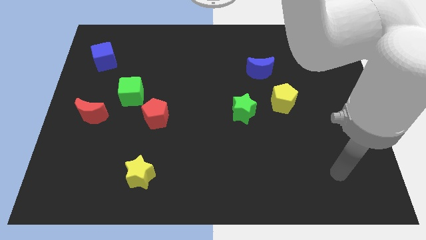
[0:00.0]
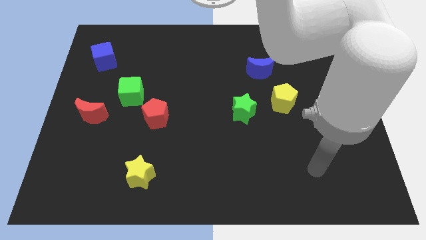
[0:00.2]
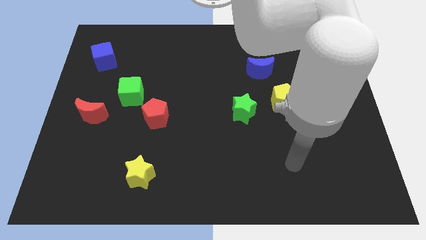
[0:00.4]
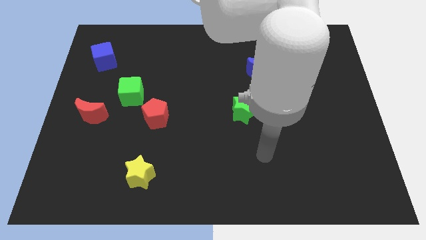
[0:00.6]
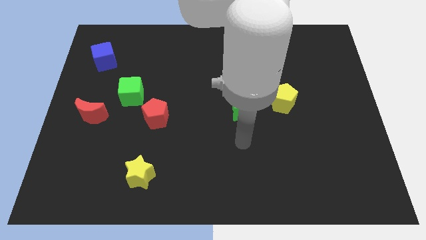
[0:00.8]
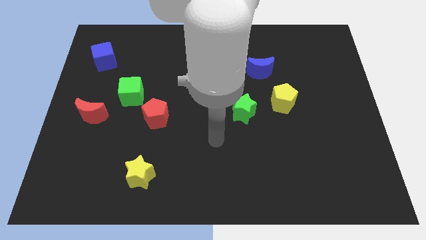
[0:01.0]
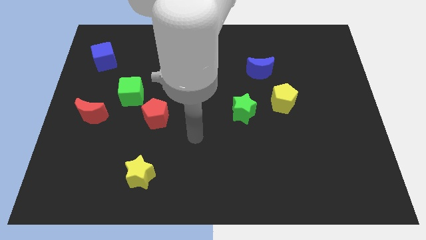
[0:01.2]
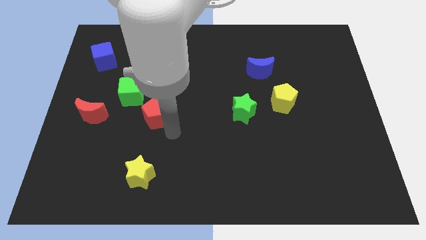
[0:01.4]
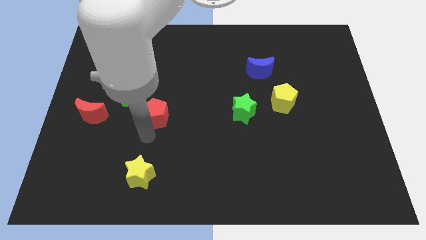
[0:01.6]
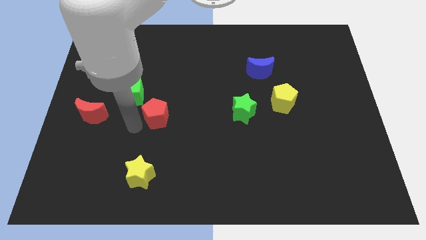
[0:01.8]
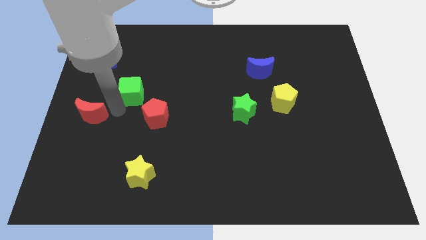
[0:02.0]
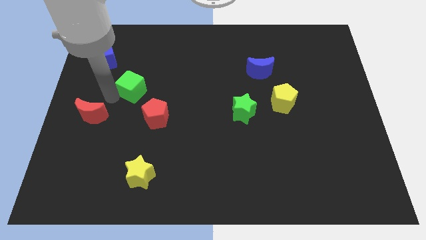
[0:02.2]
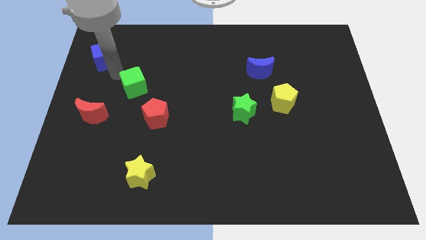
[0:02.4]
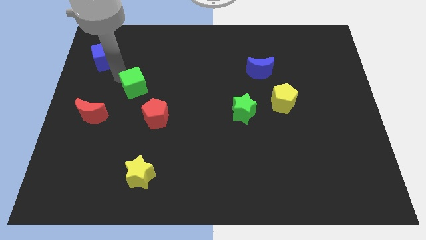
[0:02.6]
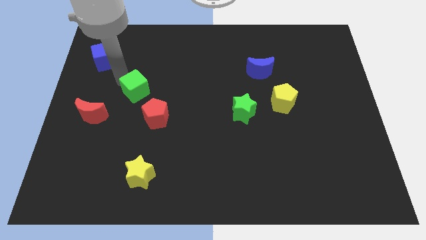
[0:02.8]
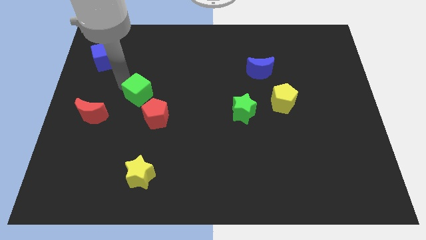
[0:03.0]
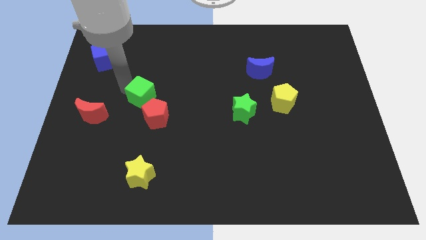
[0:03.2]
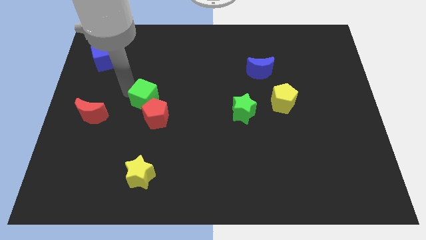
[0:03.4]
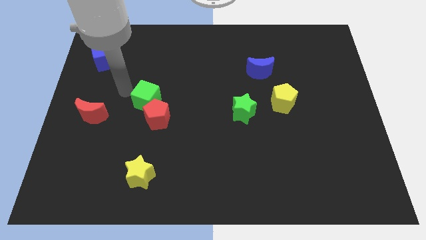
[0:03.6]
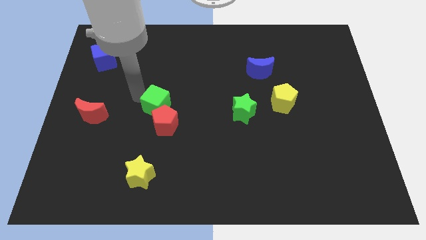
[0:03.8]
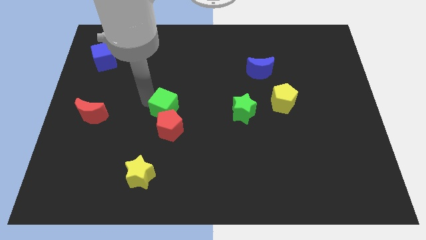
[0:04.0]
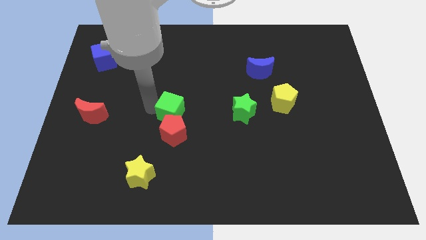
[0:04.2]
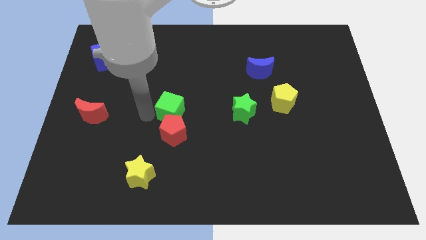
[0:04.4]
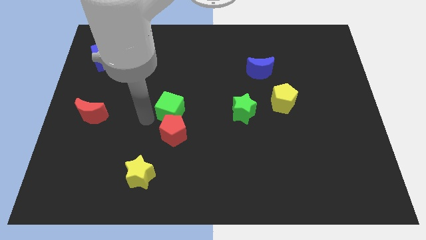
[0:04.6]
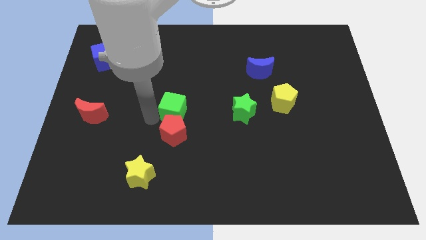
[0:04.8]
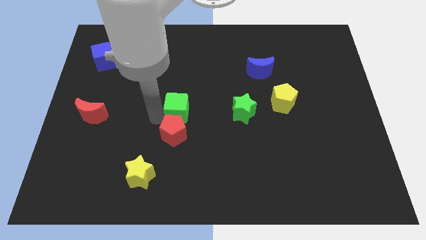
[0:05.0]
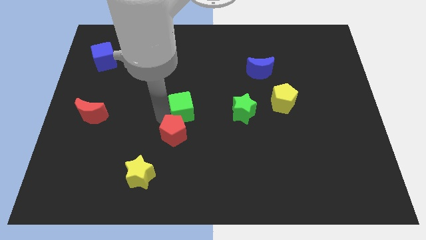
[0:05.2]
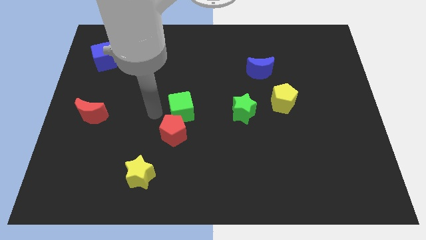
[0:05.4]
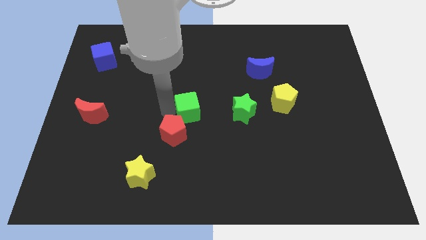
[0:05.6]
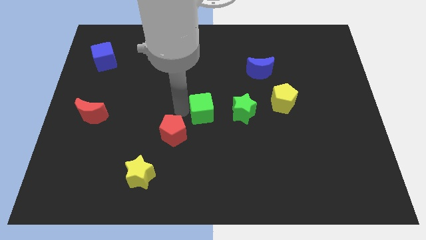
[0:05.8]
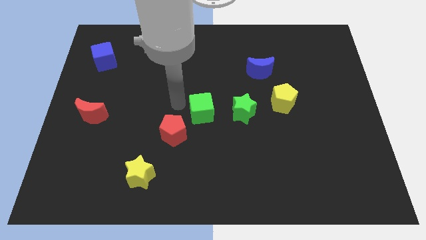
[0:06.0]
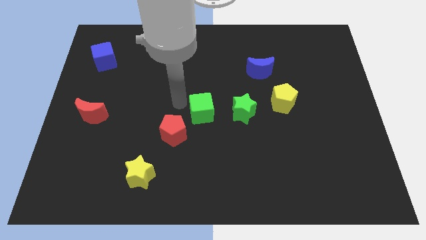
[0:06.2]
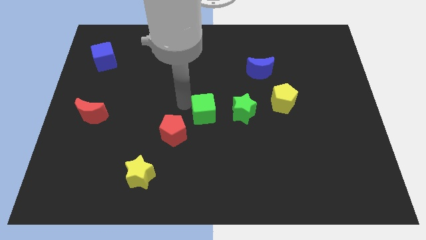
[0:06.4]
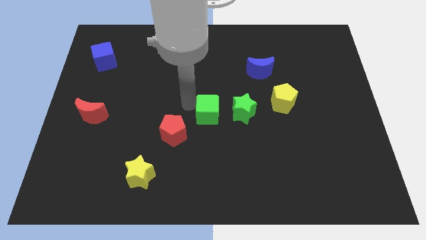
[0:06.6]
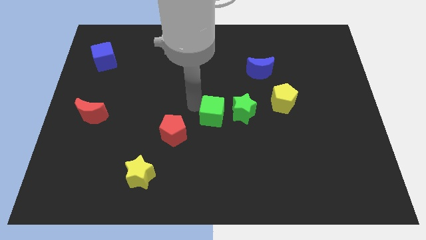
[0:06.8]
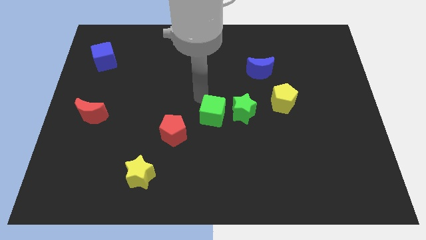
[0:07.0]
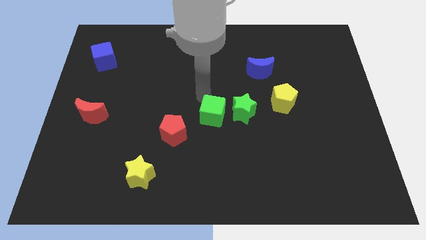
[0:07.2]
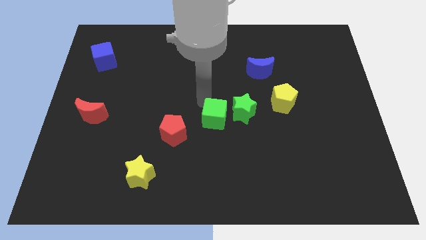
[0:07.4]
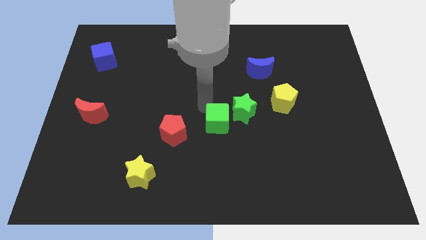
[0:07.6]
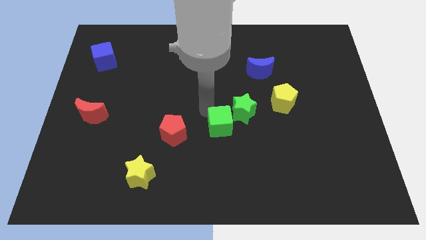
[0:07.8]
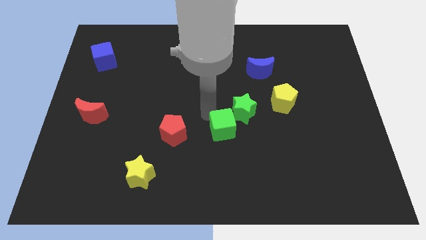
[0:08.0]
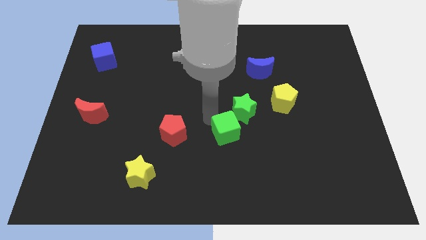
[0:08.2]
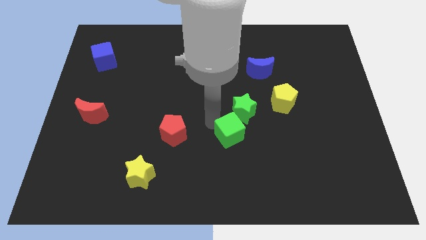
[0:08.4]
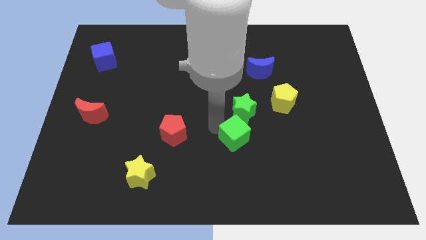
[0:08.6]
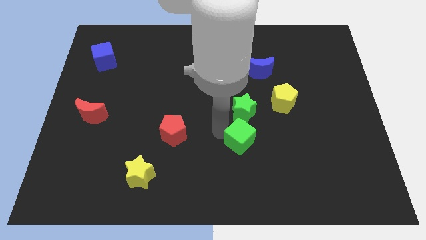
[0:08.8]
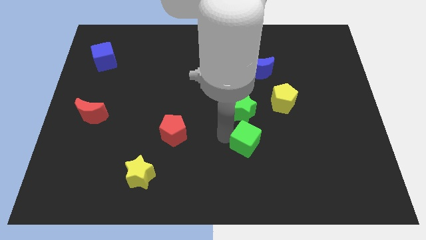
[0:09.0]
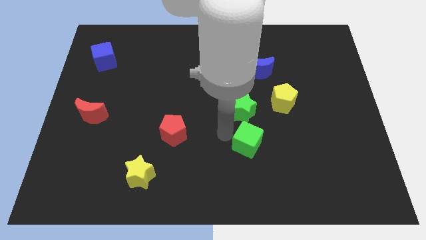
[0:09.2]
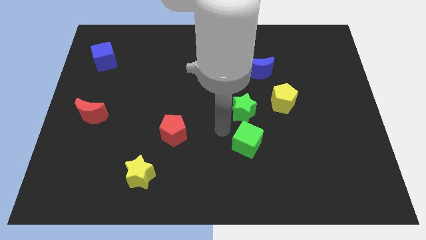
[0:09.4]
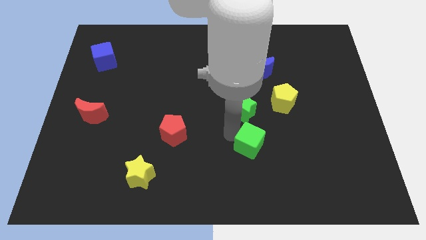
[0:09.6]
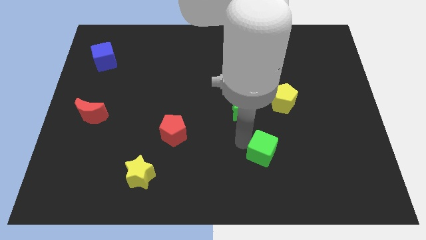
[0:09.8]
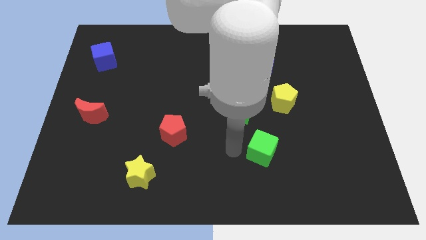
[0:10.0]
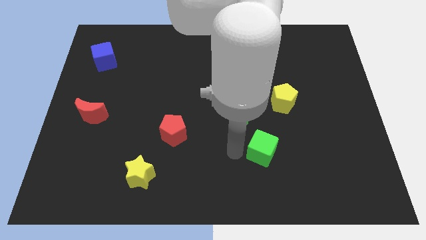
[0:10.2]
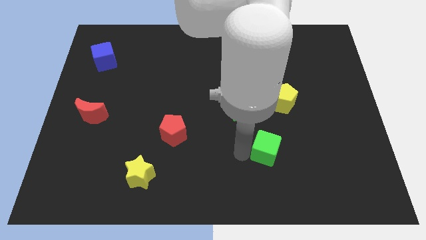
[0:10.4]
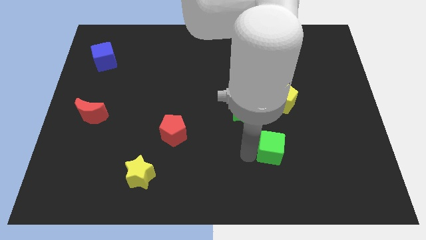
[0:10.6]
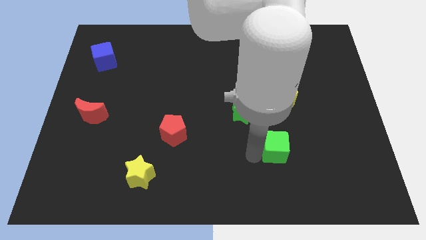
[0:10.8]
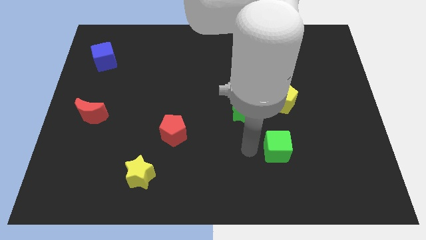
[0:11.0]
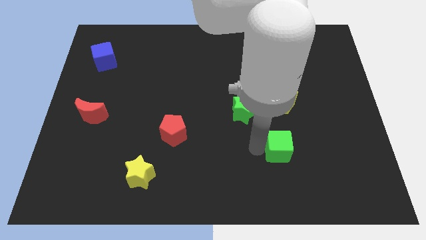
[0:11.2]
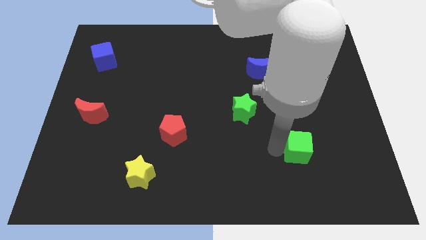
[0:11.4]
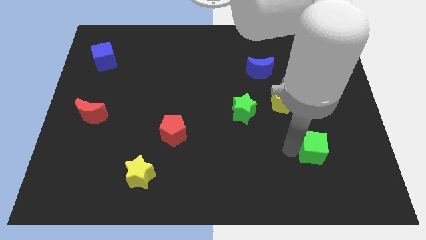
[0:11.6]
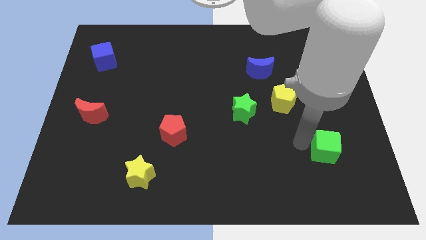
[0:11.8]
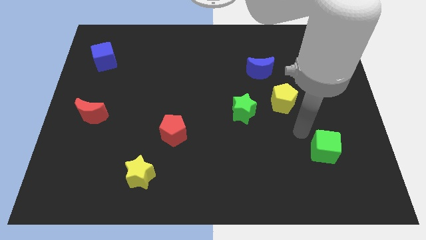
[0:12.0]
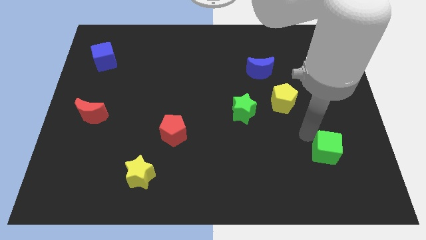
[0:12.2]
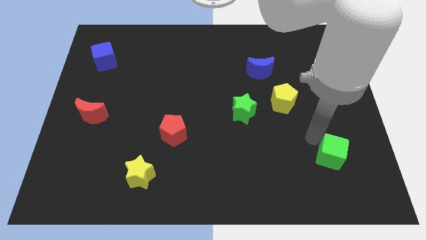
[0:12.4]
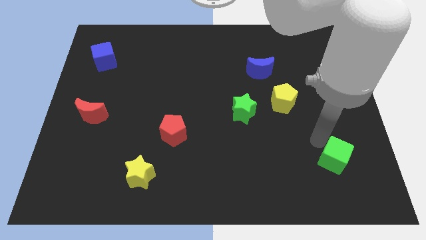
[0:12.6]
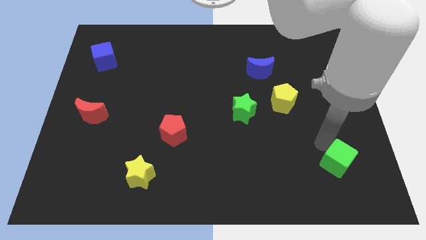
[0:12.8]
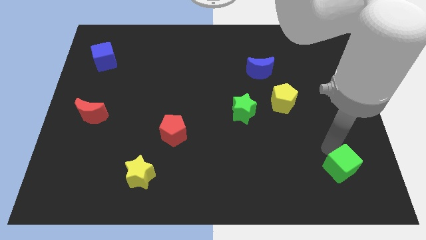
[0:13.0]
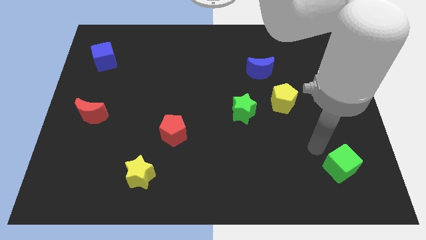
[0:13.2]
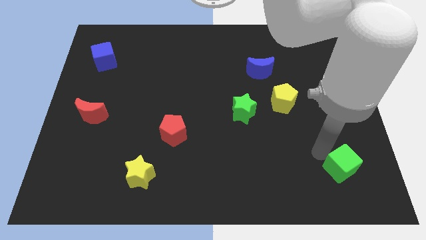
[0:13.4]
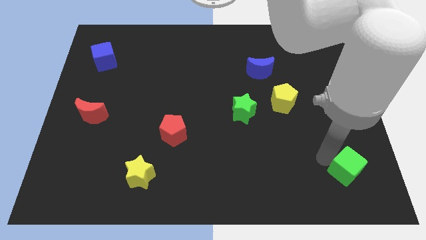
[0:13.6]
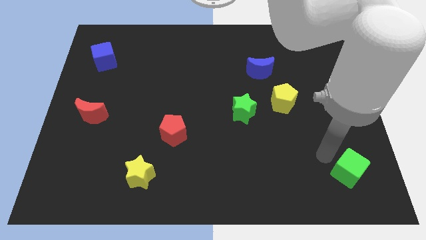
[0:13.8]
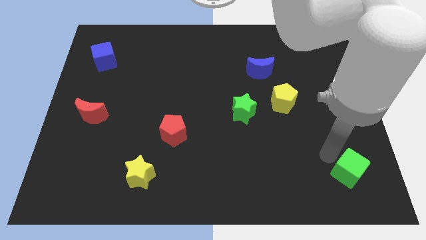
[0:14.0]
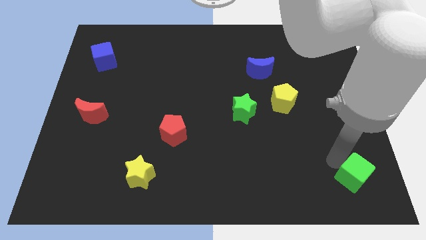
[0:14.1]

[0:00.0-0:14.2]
move the green cube to the lower right corner
